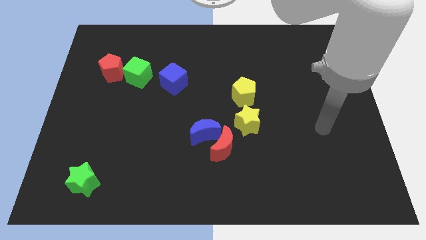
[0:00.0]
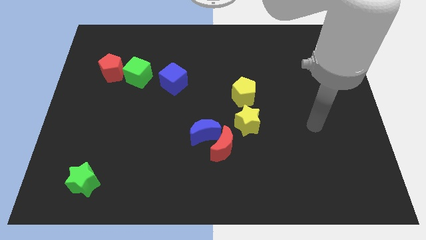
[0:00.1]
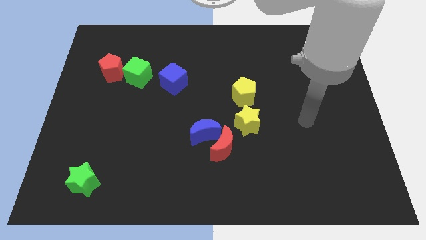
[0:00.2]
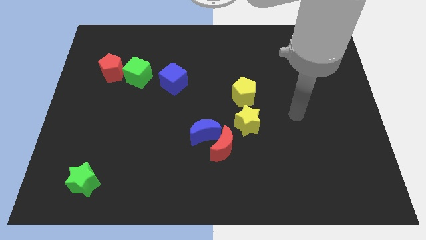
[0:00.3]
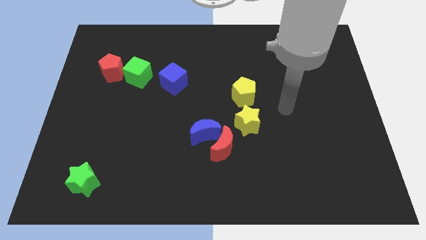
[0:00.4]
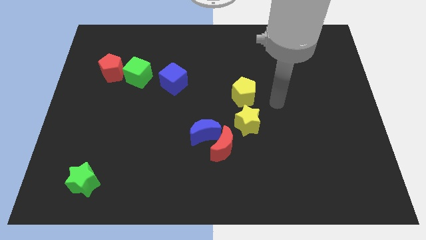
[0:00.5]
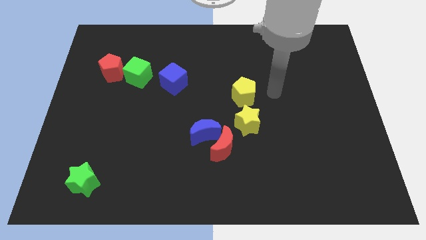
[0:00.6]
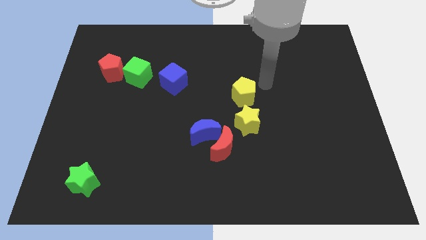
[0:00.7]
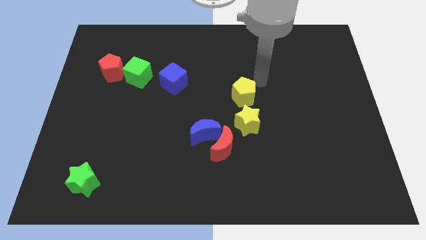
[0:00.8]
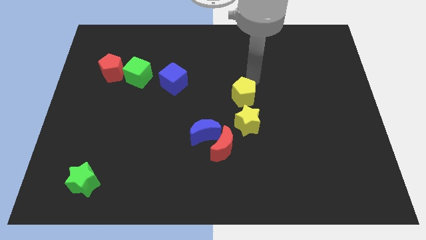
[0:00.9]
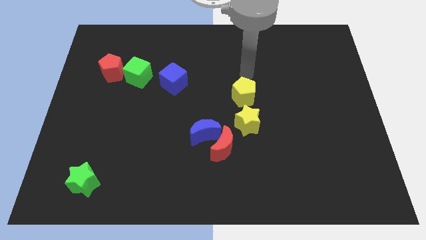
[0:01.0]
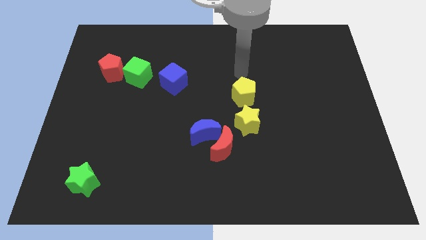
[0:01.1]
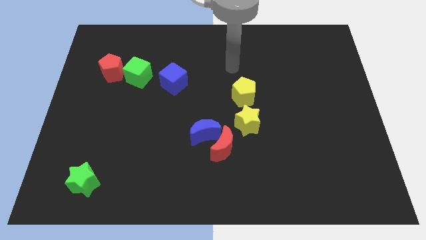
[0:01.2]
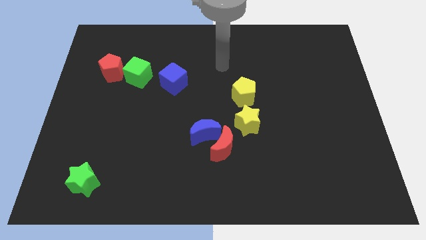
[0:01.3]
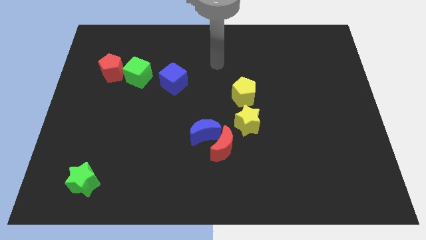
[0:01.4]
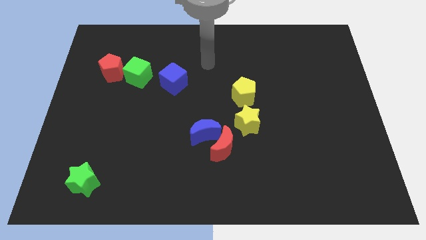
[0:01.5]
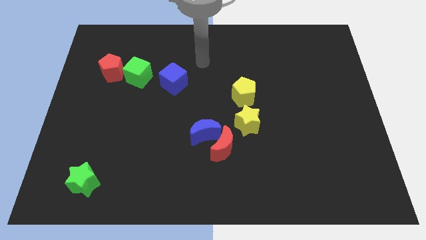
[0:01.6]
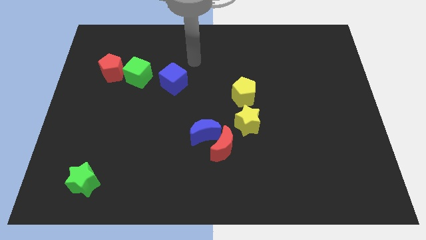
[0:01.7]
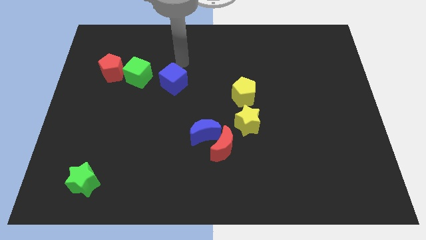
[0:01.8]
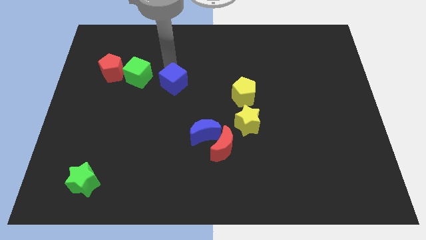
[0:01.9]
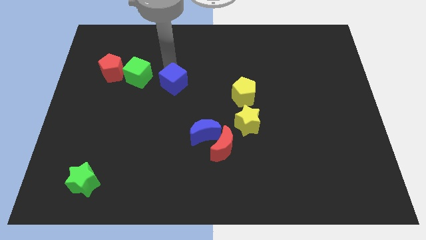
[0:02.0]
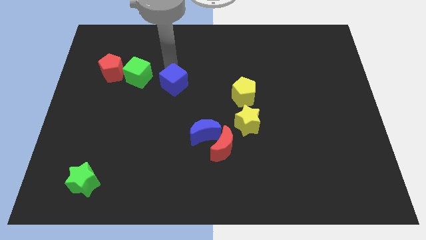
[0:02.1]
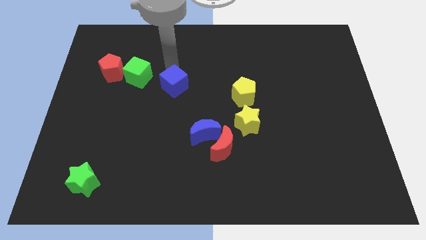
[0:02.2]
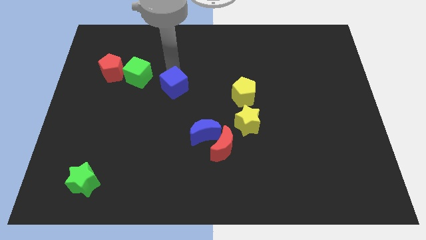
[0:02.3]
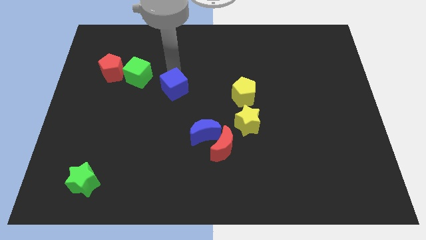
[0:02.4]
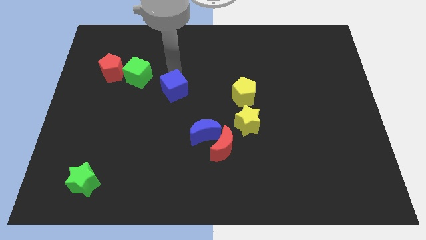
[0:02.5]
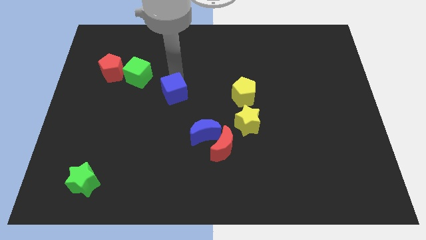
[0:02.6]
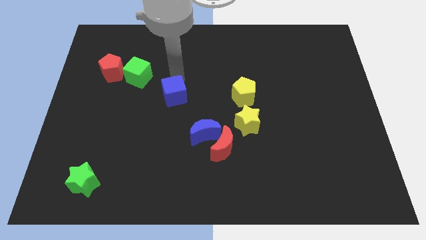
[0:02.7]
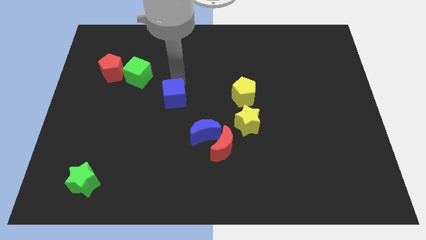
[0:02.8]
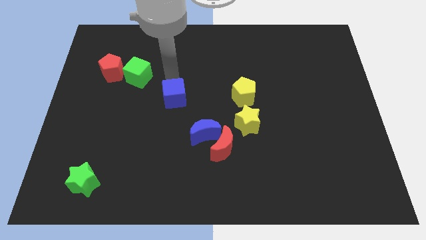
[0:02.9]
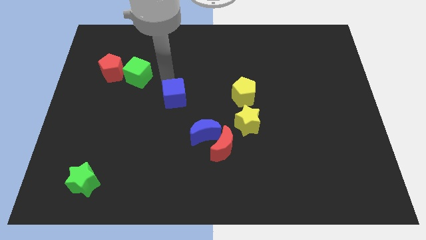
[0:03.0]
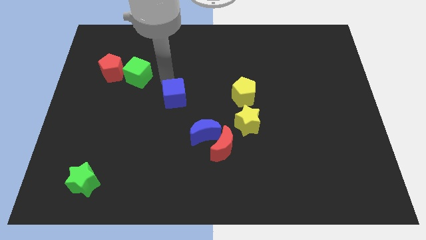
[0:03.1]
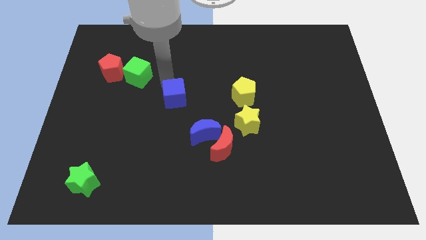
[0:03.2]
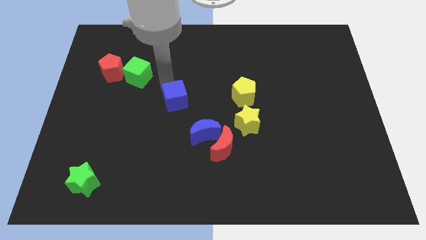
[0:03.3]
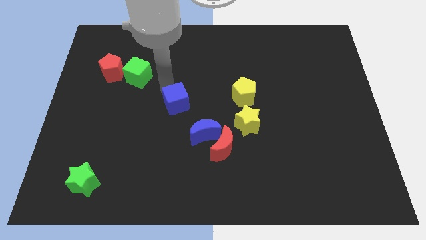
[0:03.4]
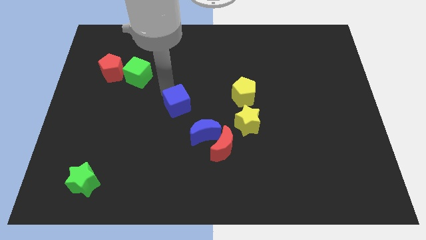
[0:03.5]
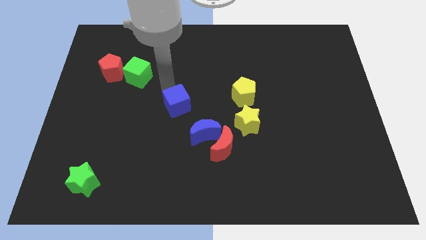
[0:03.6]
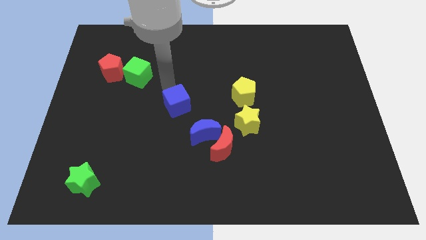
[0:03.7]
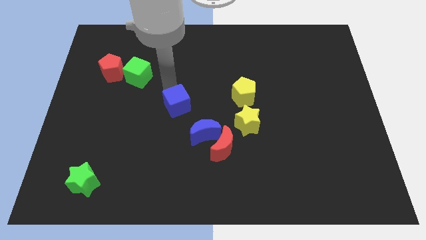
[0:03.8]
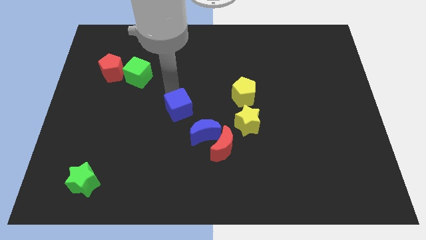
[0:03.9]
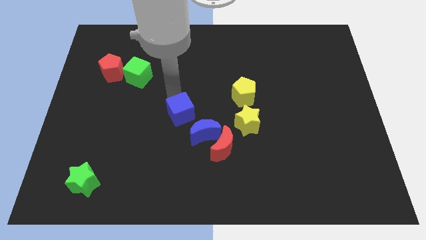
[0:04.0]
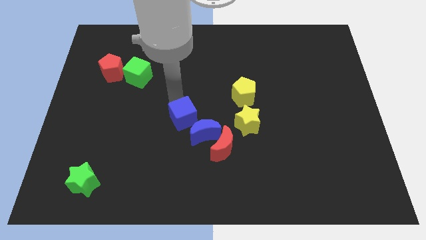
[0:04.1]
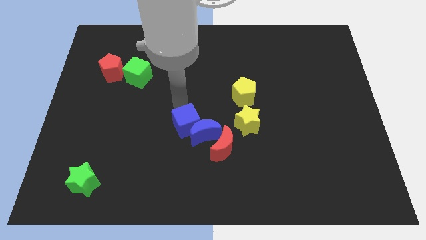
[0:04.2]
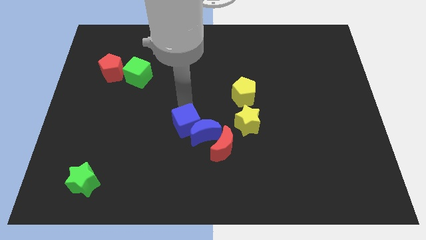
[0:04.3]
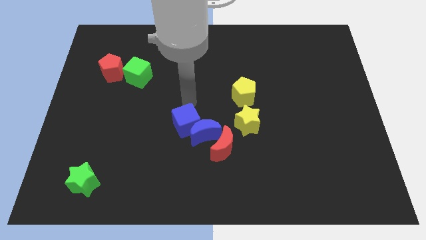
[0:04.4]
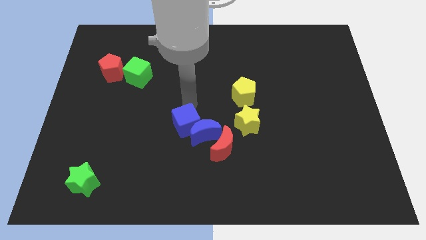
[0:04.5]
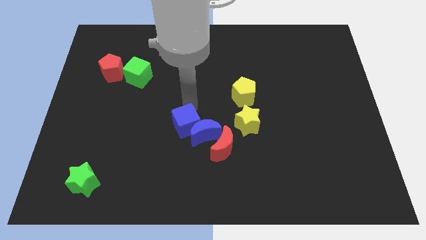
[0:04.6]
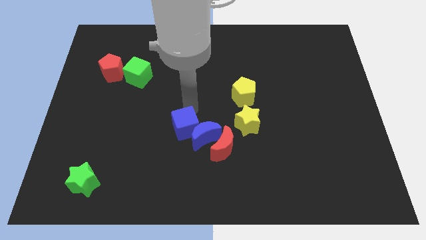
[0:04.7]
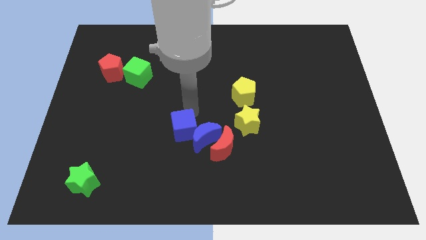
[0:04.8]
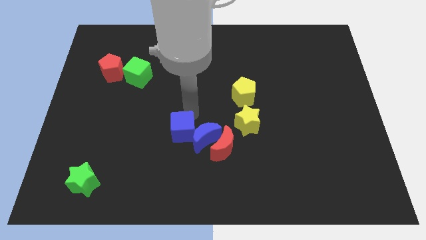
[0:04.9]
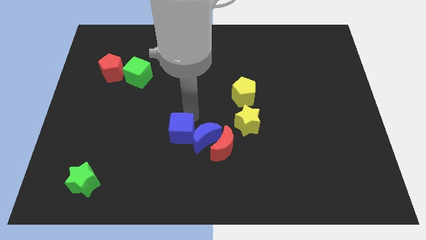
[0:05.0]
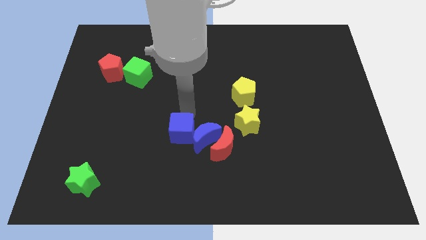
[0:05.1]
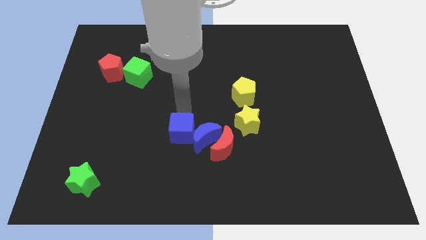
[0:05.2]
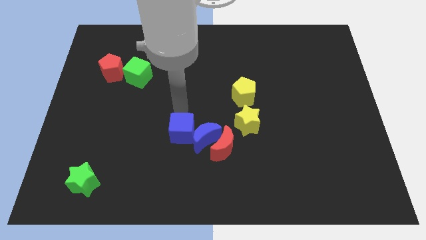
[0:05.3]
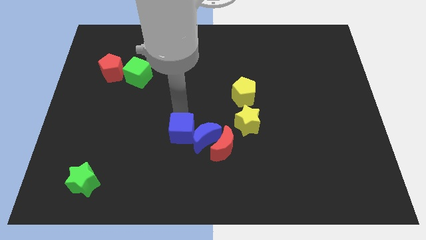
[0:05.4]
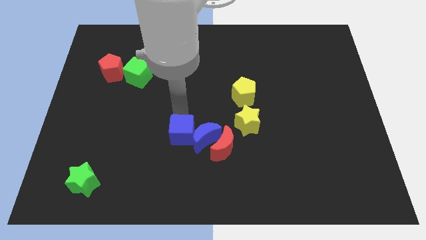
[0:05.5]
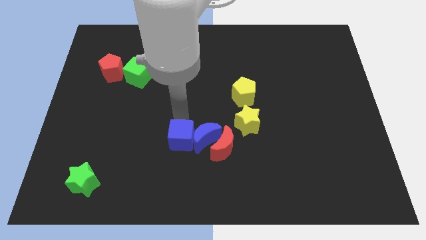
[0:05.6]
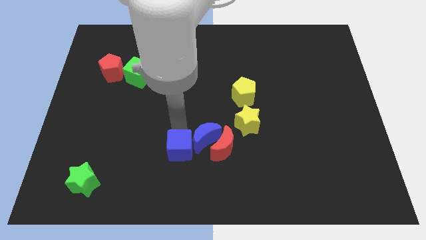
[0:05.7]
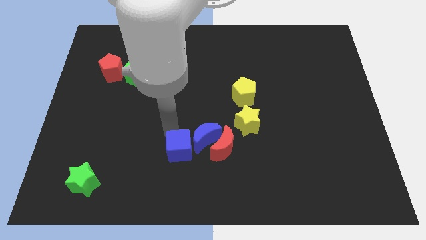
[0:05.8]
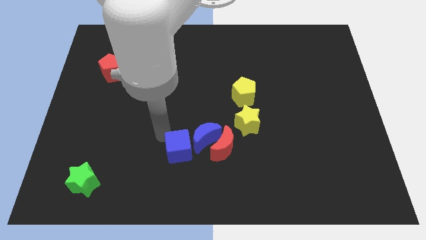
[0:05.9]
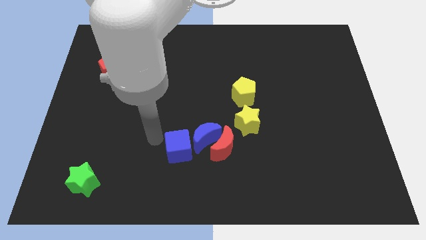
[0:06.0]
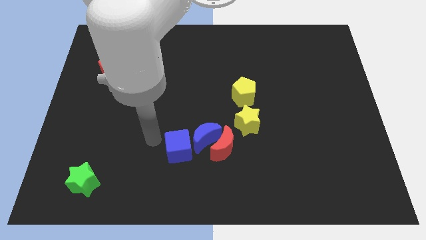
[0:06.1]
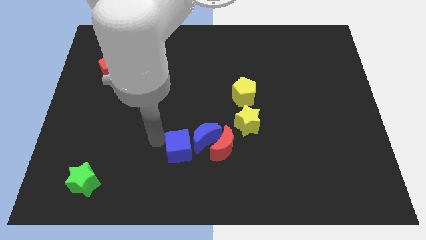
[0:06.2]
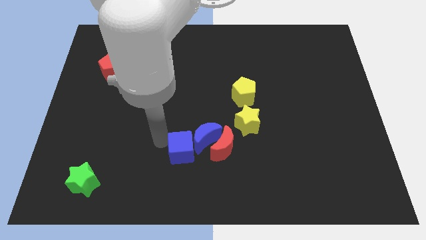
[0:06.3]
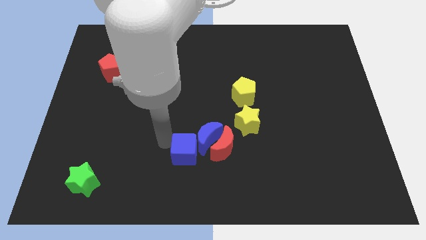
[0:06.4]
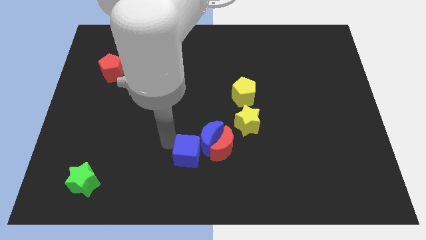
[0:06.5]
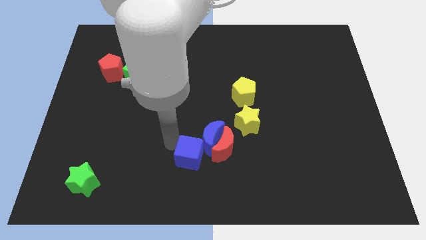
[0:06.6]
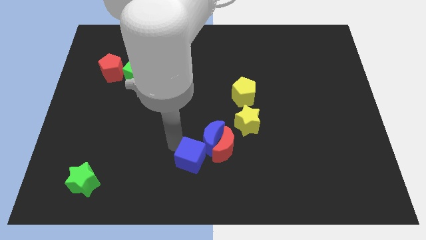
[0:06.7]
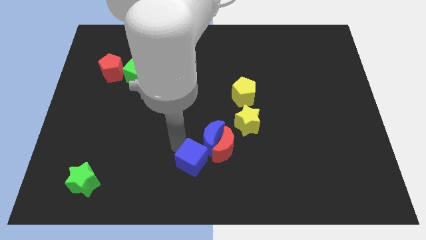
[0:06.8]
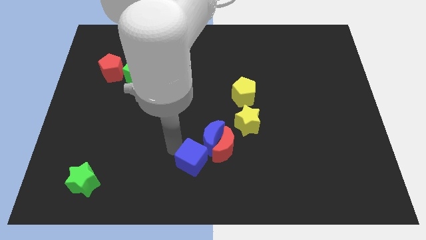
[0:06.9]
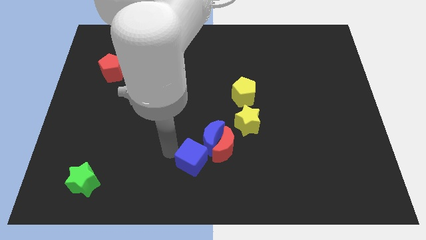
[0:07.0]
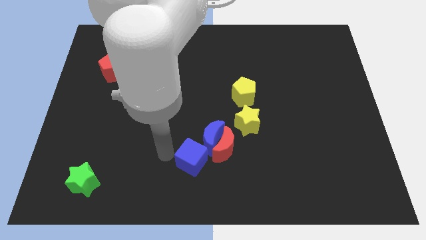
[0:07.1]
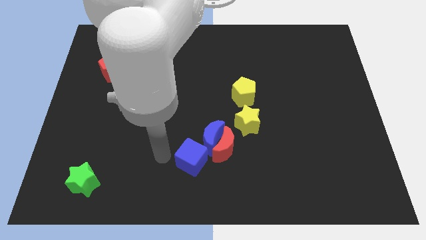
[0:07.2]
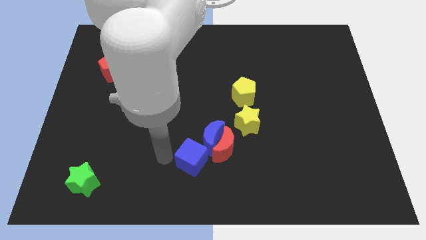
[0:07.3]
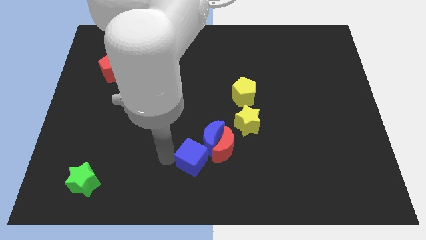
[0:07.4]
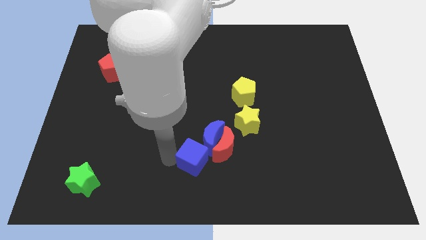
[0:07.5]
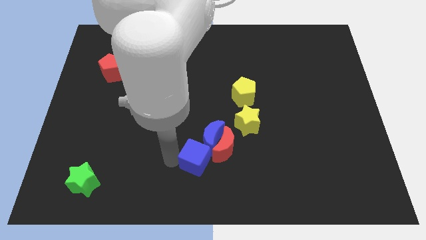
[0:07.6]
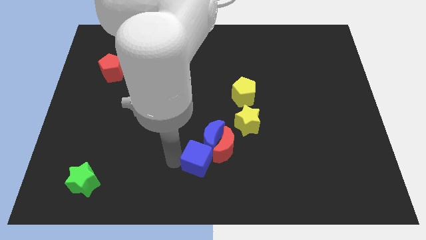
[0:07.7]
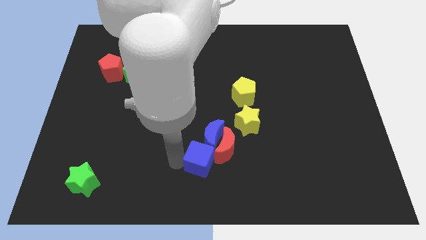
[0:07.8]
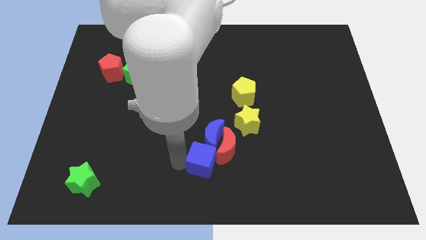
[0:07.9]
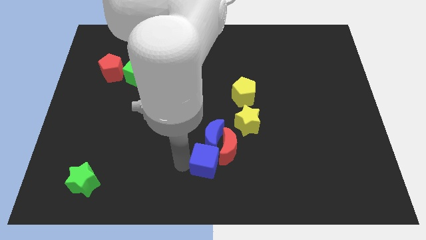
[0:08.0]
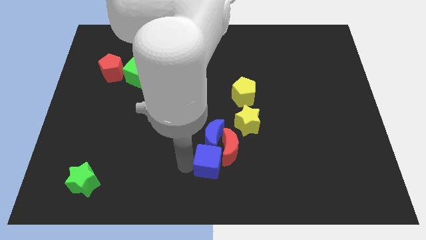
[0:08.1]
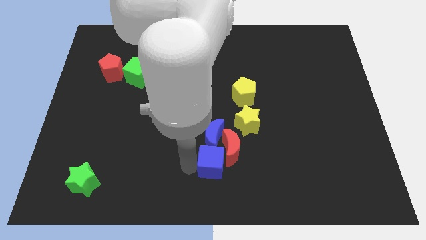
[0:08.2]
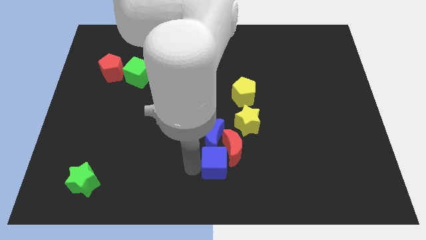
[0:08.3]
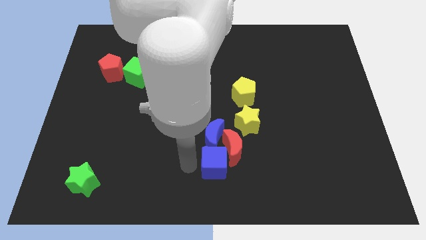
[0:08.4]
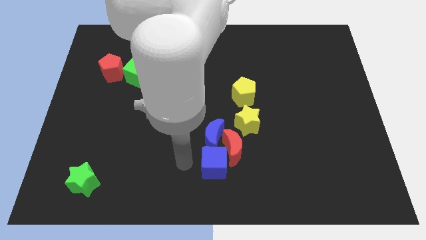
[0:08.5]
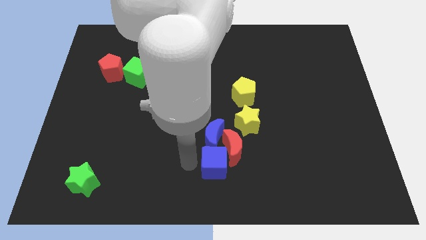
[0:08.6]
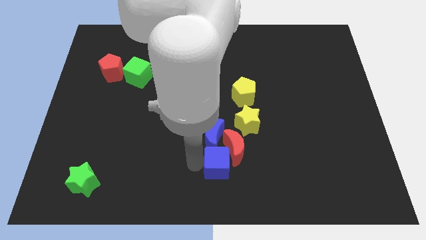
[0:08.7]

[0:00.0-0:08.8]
slide the blue cube down and right diagonally
